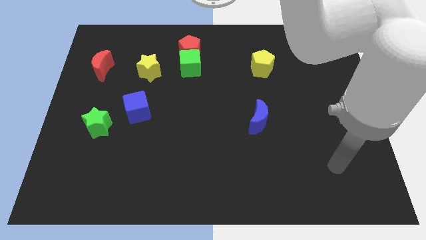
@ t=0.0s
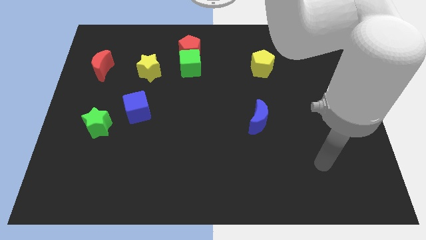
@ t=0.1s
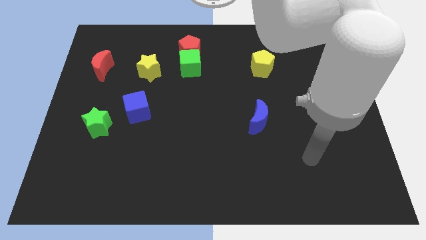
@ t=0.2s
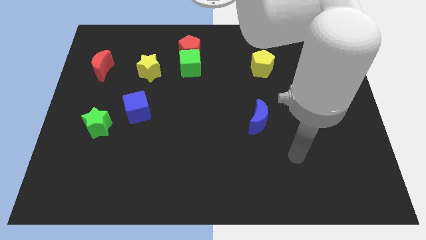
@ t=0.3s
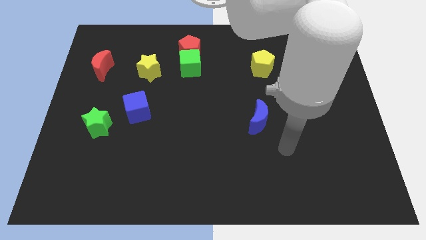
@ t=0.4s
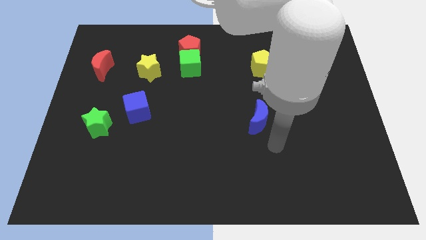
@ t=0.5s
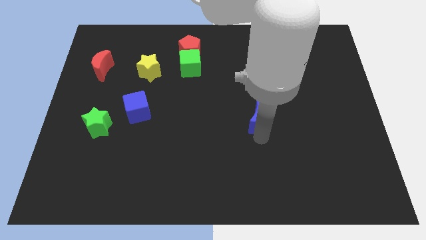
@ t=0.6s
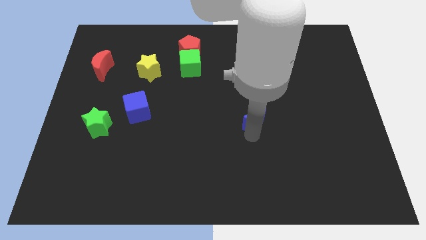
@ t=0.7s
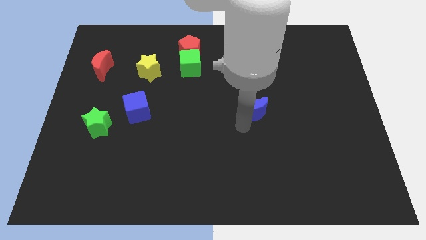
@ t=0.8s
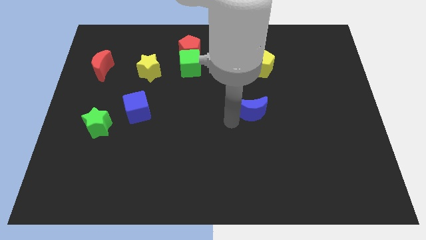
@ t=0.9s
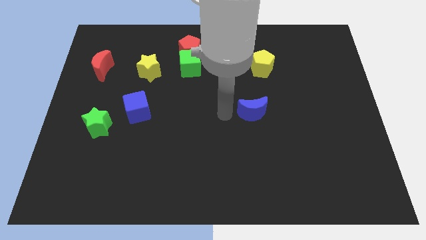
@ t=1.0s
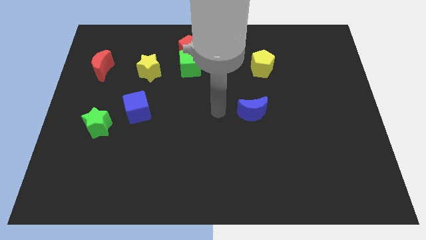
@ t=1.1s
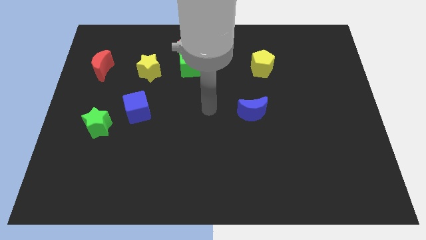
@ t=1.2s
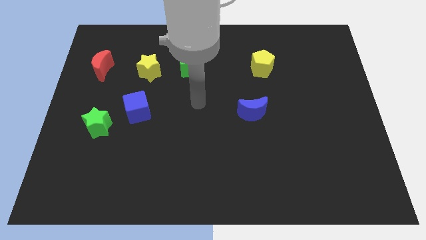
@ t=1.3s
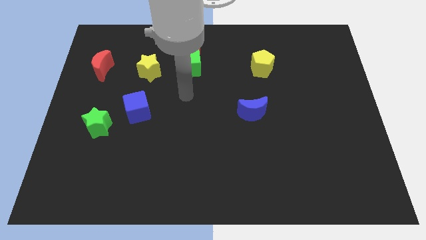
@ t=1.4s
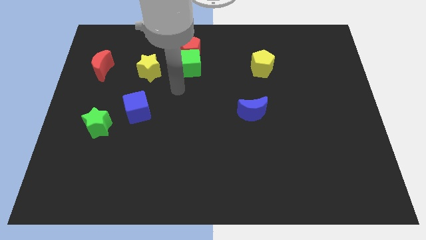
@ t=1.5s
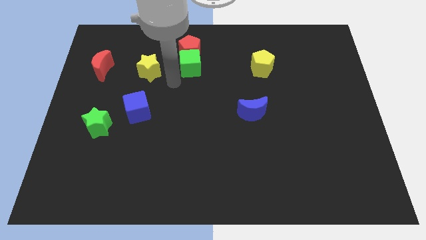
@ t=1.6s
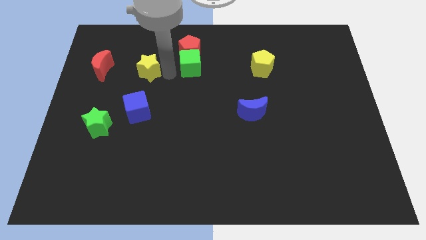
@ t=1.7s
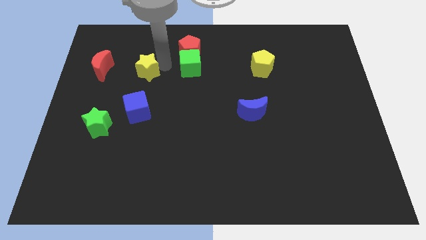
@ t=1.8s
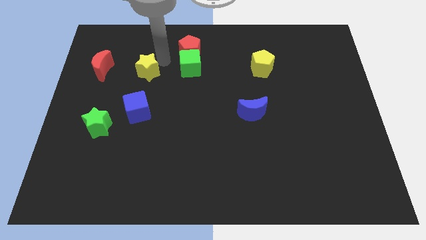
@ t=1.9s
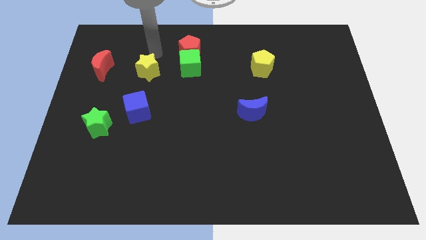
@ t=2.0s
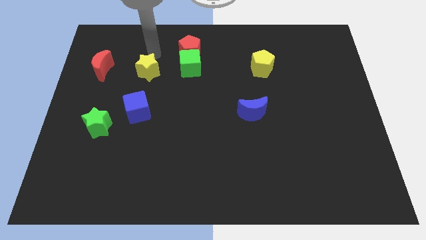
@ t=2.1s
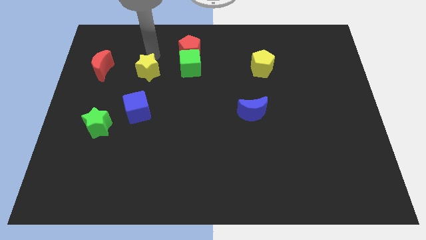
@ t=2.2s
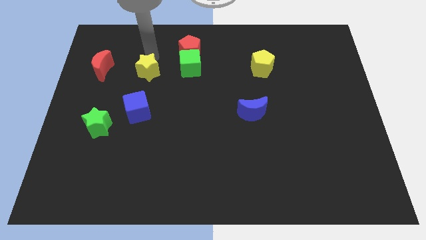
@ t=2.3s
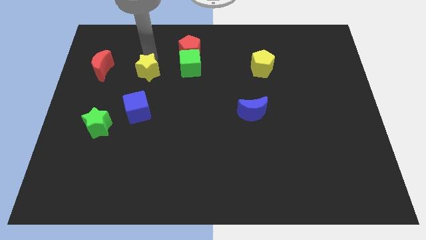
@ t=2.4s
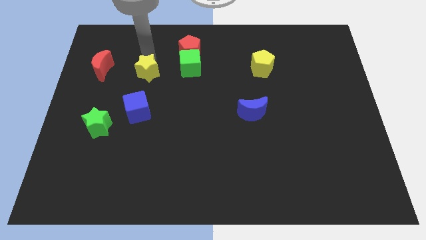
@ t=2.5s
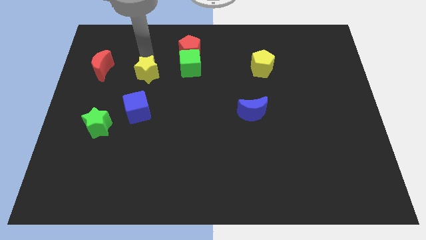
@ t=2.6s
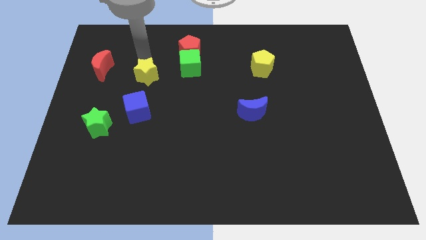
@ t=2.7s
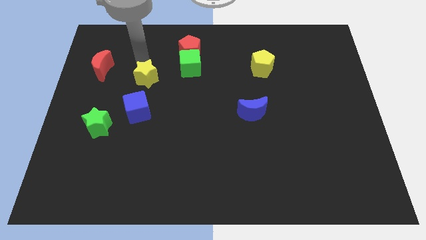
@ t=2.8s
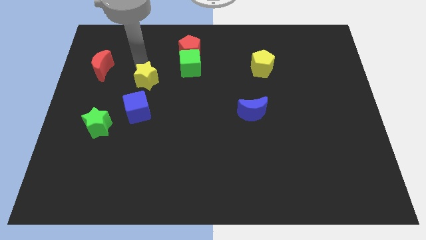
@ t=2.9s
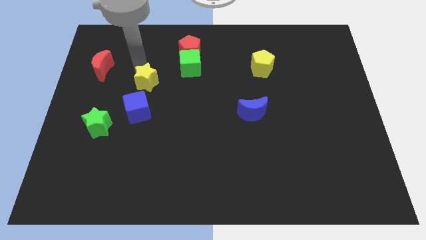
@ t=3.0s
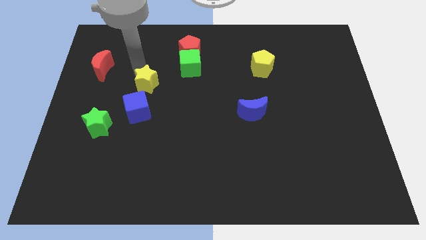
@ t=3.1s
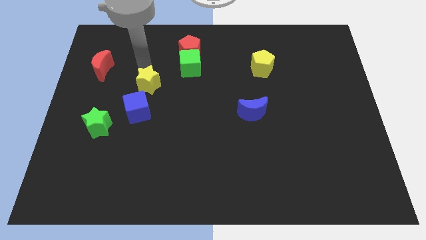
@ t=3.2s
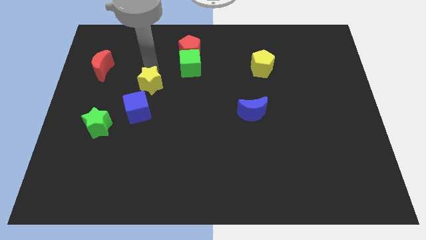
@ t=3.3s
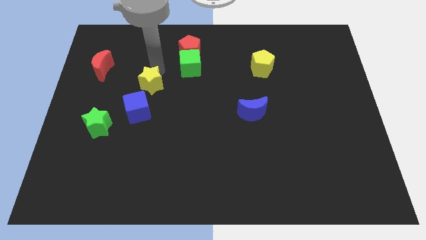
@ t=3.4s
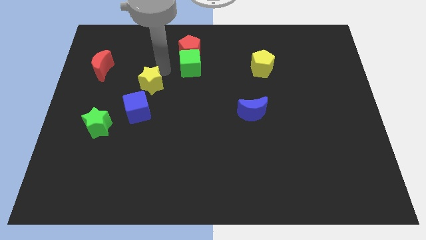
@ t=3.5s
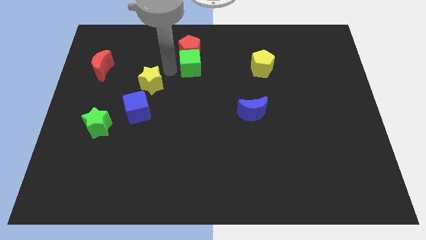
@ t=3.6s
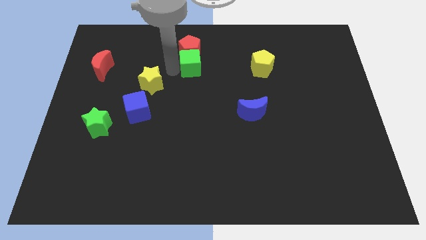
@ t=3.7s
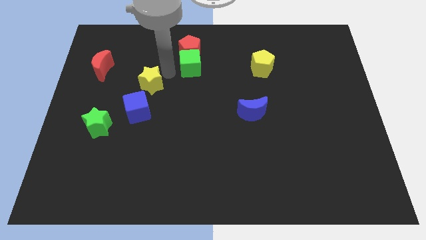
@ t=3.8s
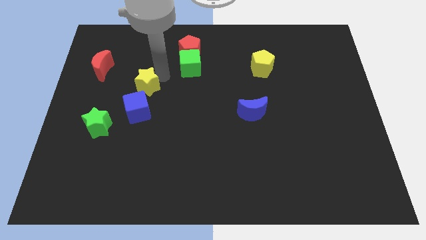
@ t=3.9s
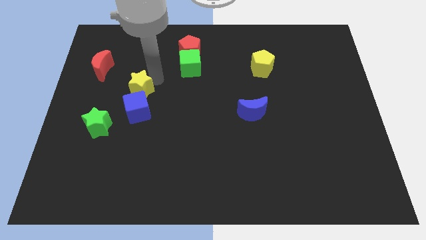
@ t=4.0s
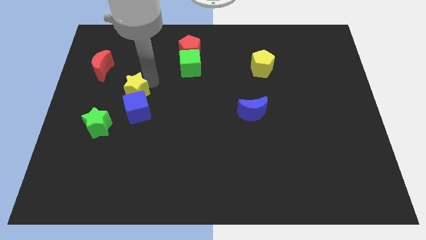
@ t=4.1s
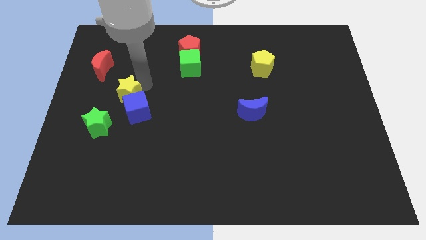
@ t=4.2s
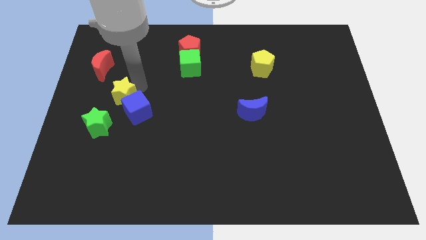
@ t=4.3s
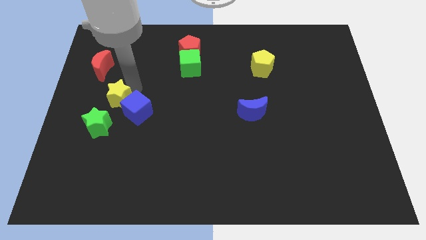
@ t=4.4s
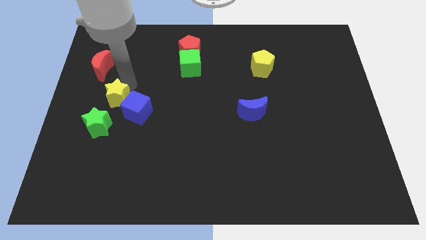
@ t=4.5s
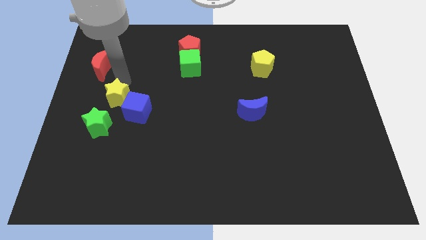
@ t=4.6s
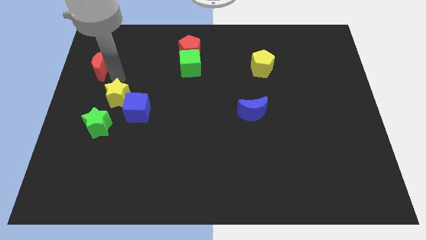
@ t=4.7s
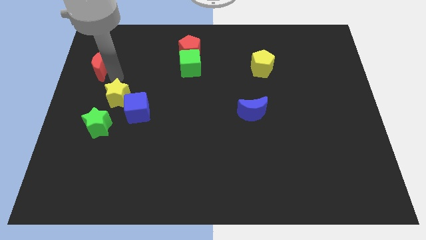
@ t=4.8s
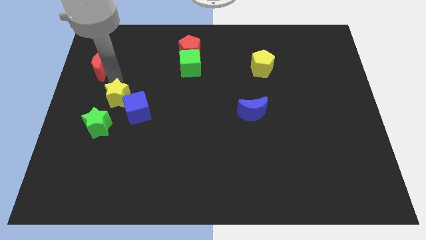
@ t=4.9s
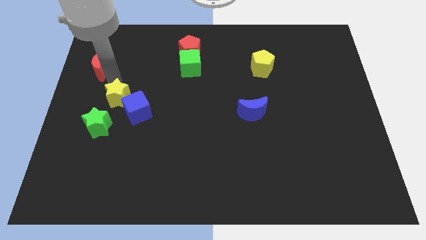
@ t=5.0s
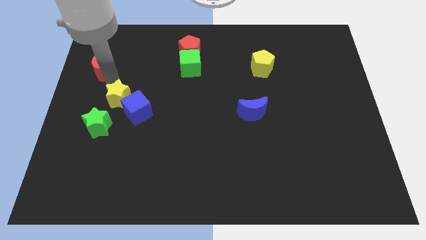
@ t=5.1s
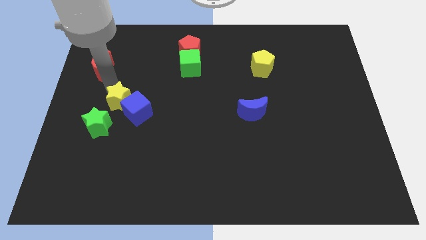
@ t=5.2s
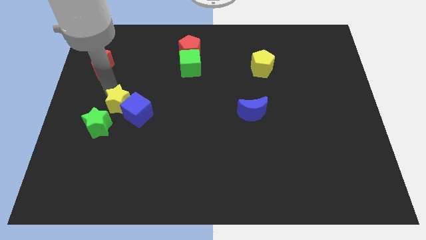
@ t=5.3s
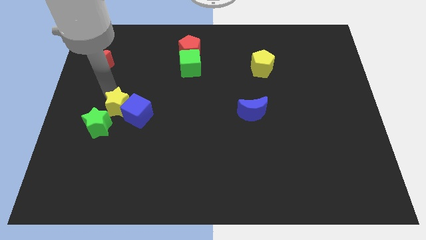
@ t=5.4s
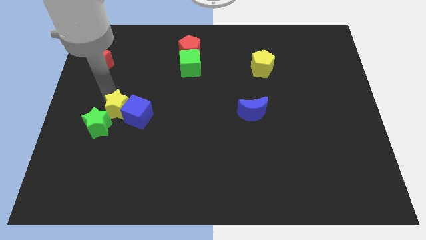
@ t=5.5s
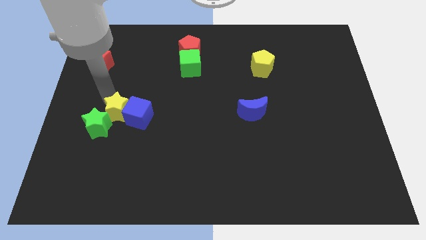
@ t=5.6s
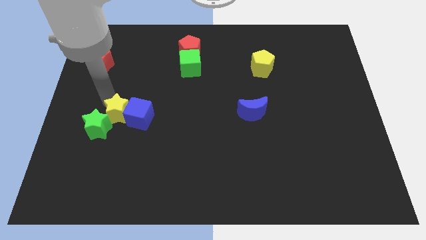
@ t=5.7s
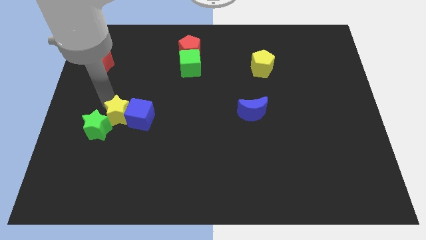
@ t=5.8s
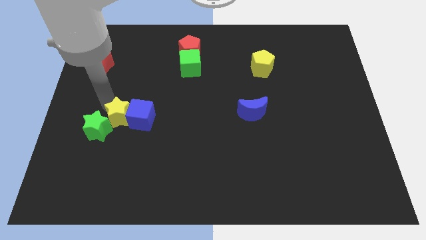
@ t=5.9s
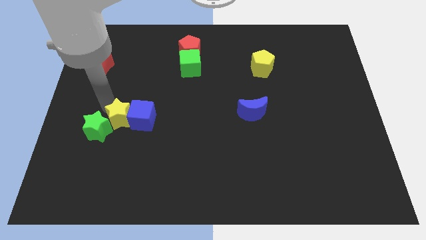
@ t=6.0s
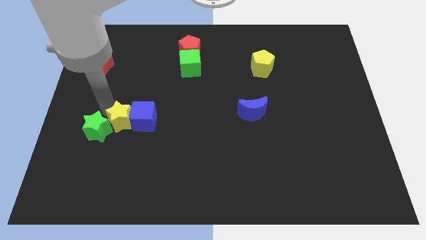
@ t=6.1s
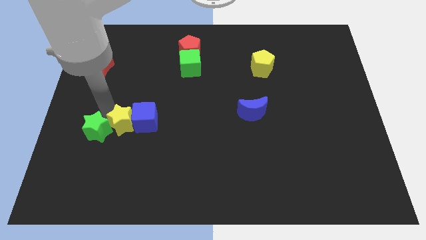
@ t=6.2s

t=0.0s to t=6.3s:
slide the yellow star to the bottom right of the green star

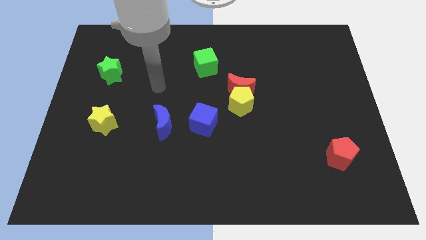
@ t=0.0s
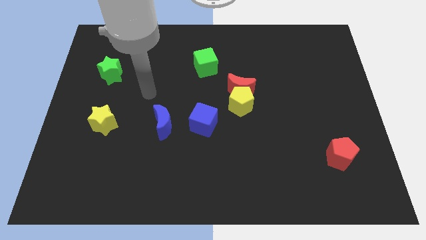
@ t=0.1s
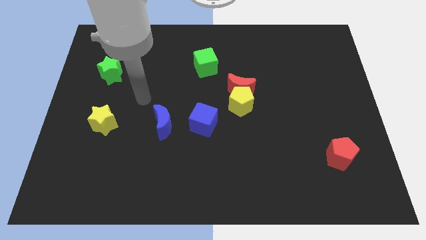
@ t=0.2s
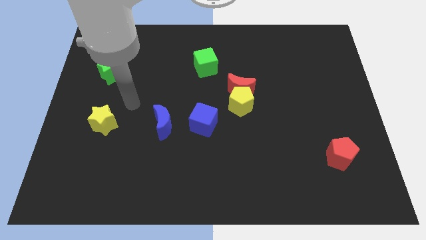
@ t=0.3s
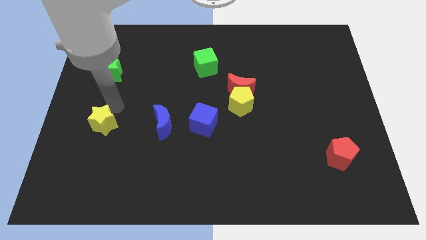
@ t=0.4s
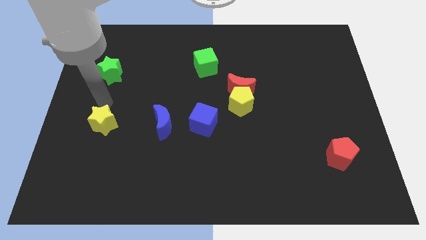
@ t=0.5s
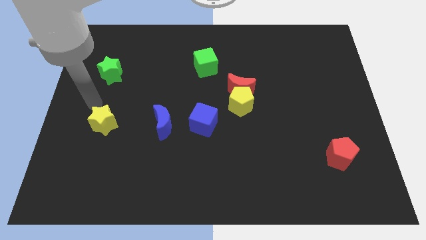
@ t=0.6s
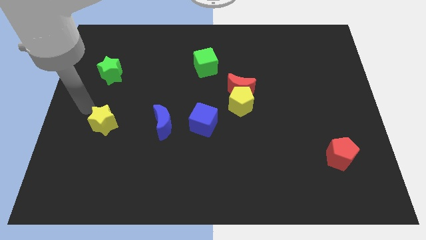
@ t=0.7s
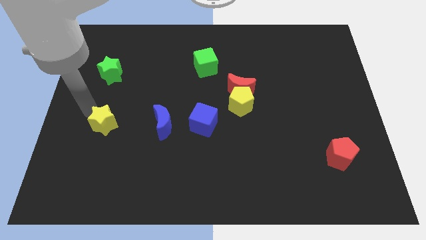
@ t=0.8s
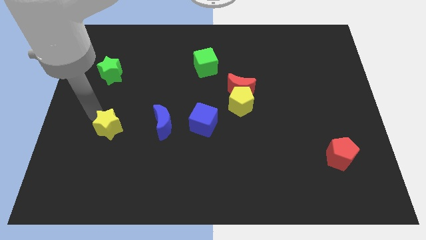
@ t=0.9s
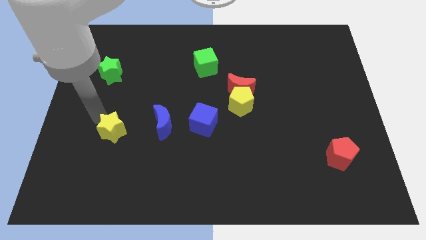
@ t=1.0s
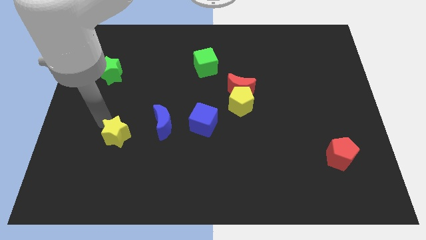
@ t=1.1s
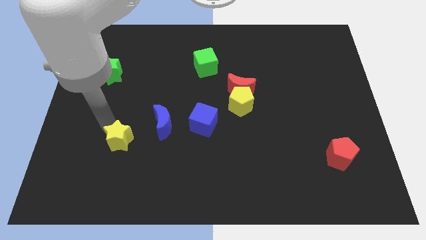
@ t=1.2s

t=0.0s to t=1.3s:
slide the yellow star to the bottom left of the blue moon

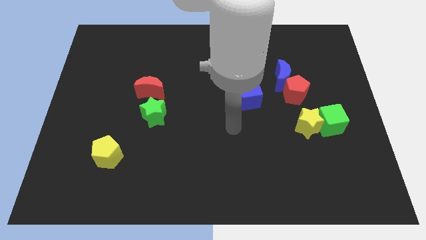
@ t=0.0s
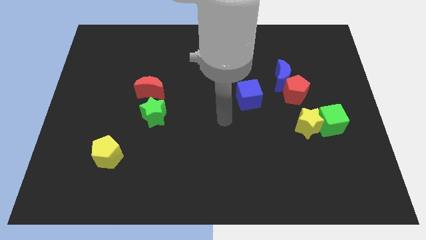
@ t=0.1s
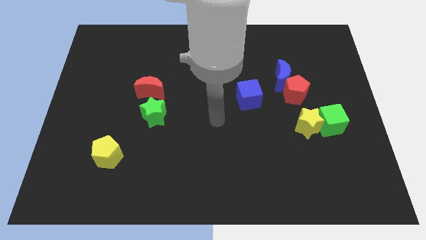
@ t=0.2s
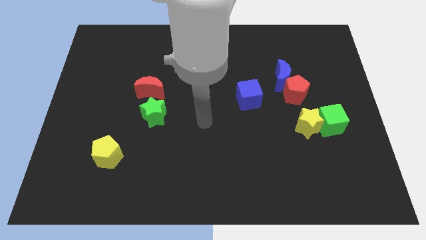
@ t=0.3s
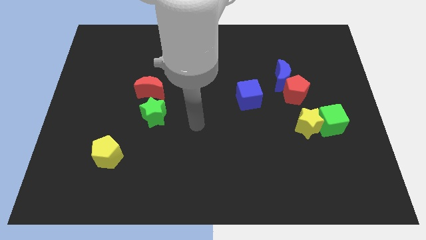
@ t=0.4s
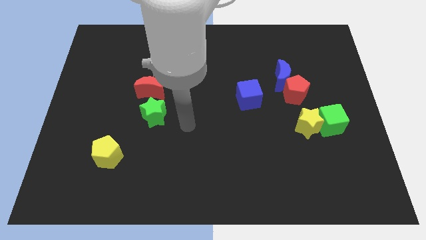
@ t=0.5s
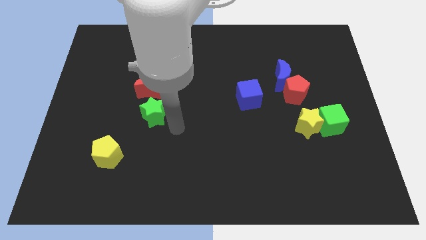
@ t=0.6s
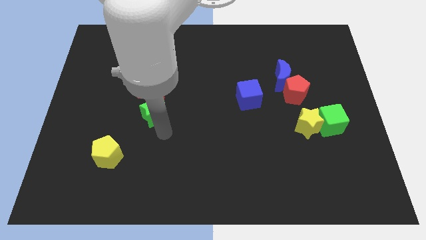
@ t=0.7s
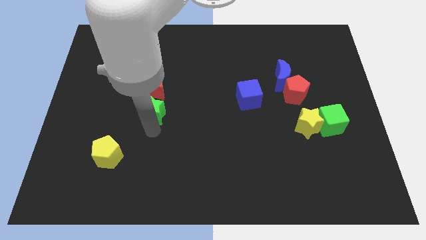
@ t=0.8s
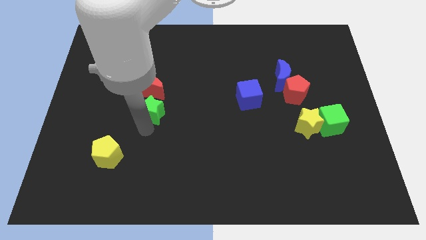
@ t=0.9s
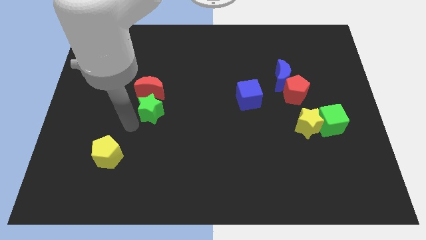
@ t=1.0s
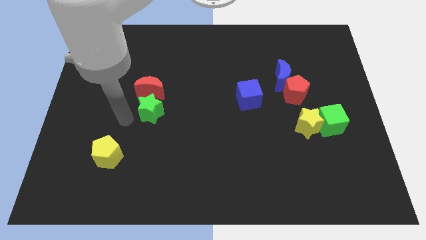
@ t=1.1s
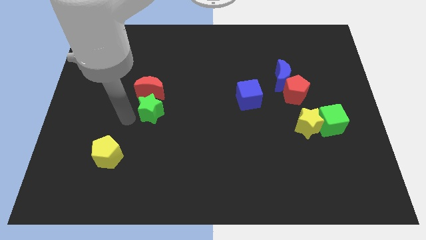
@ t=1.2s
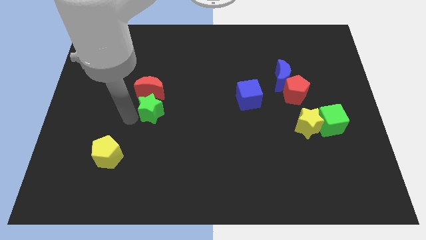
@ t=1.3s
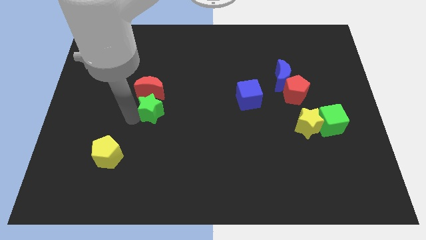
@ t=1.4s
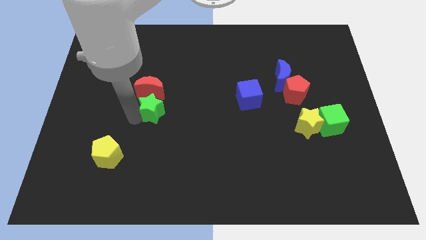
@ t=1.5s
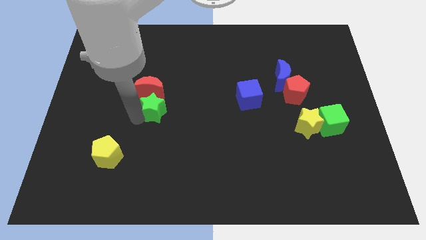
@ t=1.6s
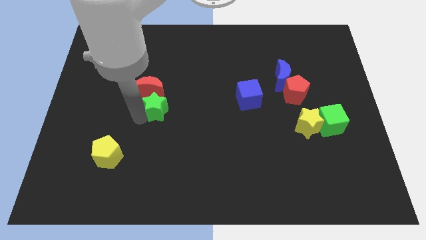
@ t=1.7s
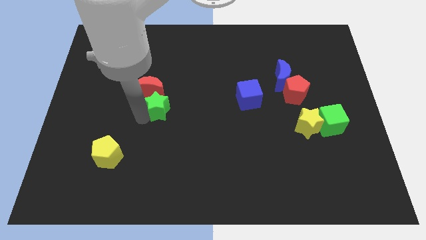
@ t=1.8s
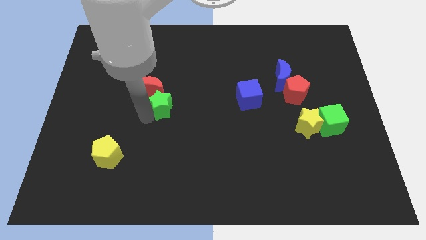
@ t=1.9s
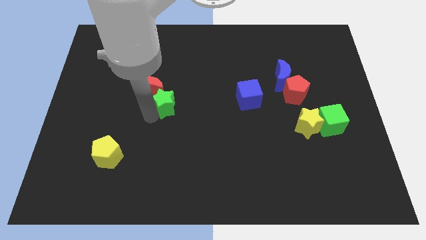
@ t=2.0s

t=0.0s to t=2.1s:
push the green star just right of the red moon
